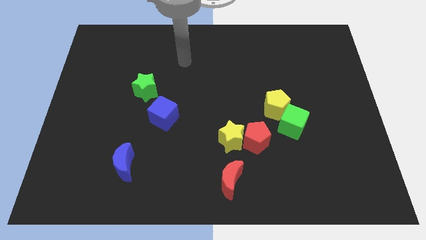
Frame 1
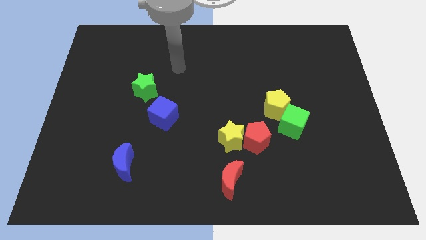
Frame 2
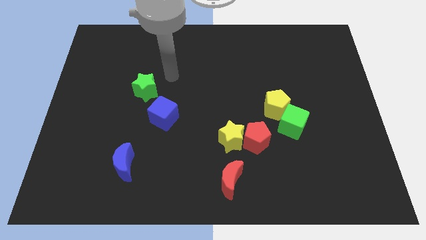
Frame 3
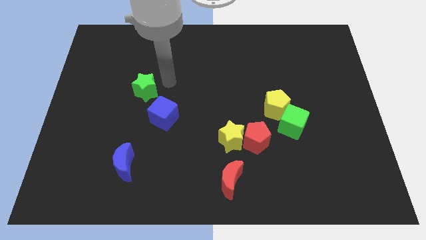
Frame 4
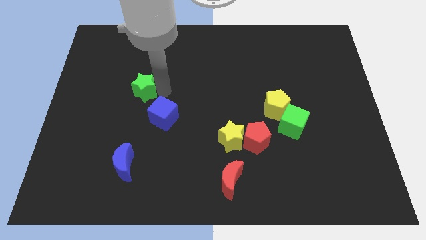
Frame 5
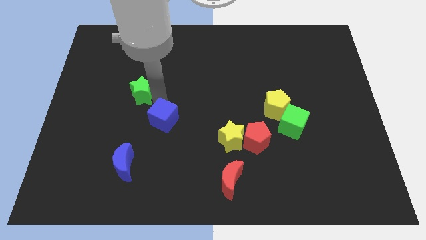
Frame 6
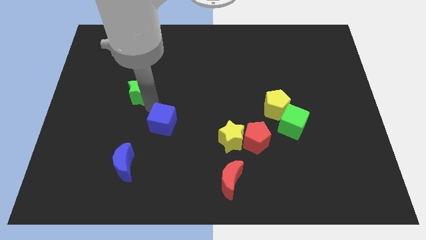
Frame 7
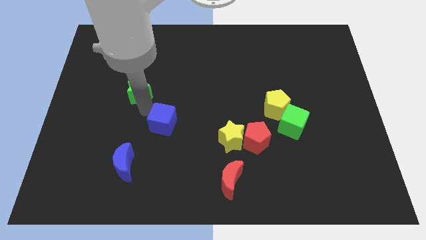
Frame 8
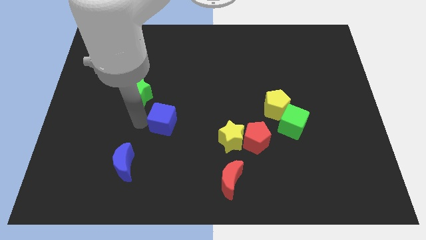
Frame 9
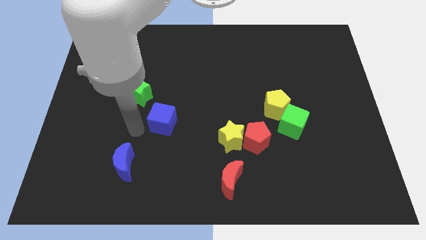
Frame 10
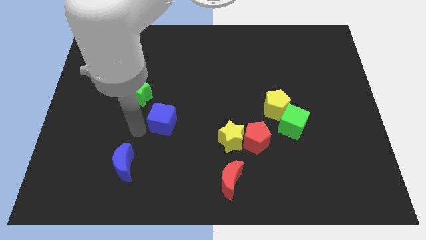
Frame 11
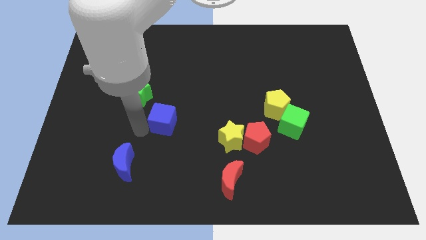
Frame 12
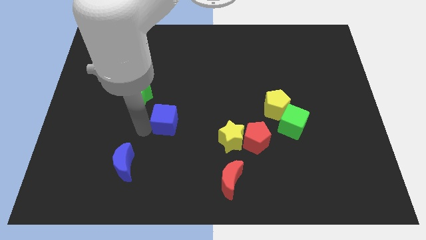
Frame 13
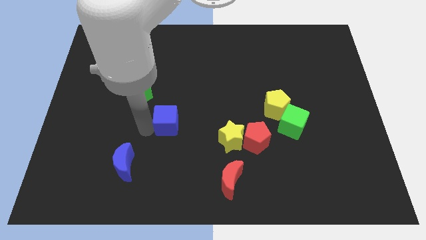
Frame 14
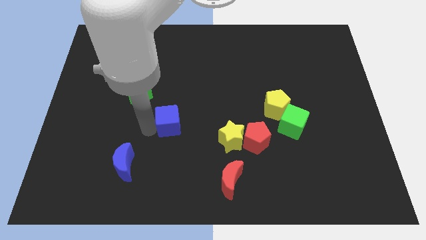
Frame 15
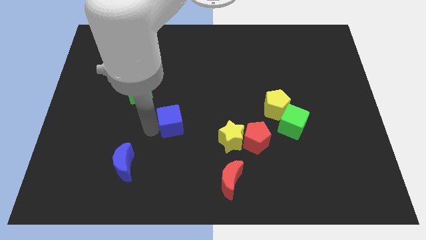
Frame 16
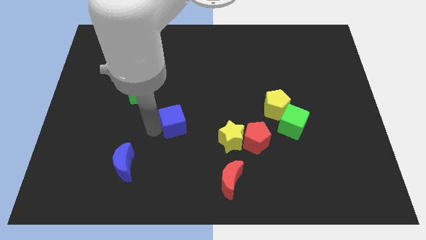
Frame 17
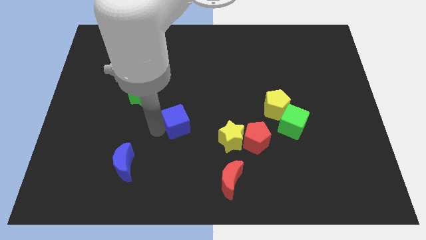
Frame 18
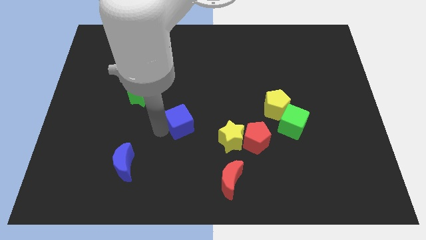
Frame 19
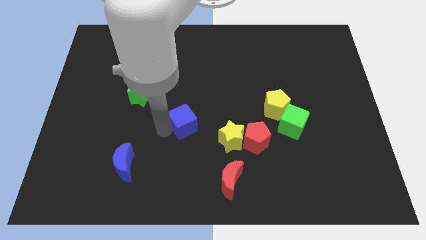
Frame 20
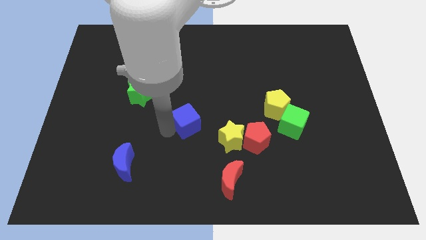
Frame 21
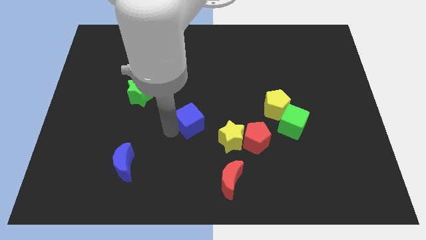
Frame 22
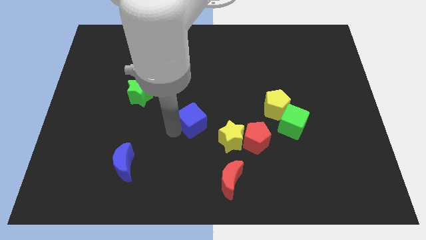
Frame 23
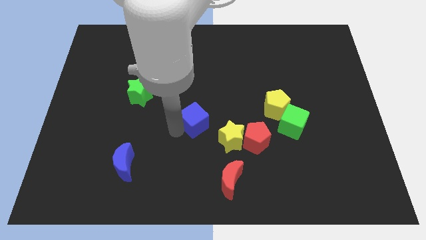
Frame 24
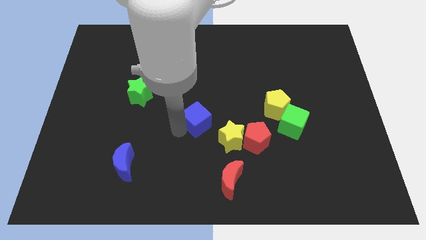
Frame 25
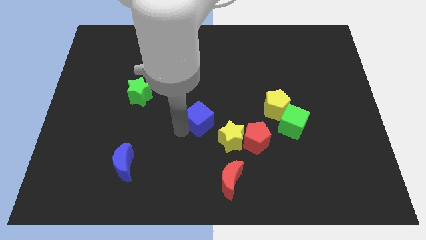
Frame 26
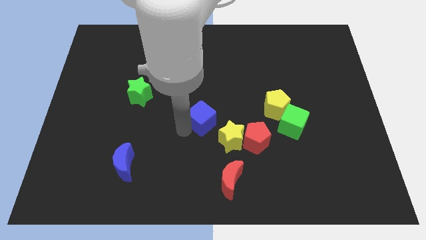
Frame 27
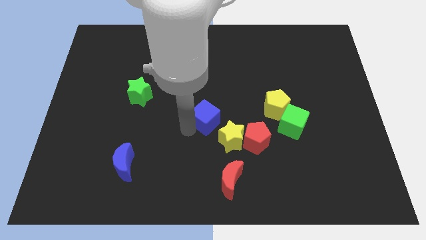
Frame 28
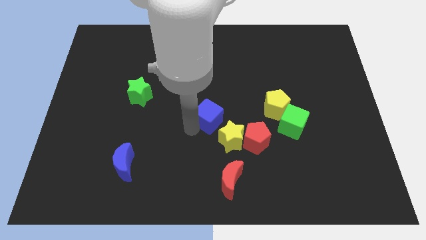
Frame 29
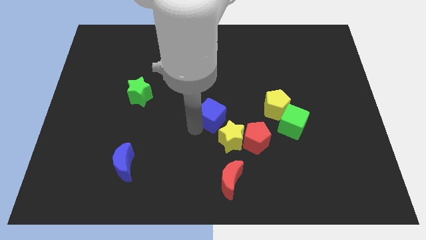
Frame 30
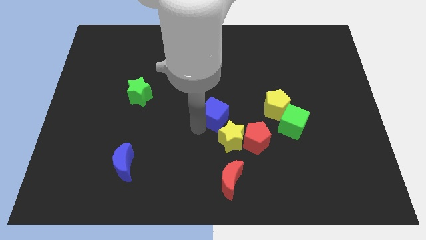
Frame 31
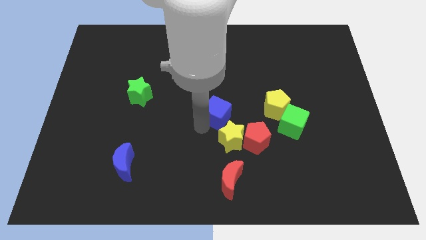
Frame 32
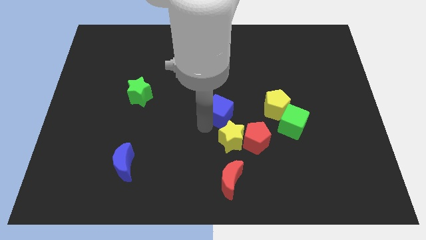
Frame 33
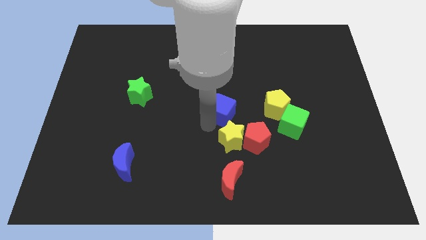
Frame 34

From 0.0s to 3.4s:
slightly slide the blue cube upwards and to the right diagonally

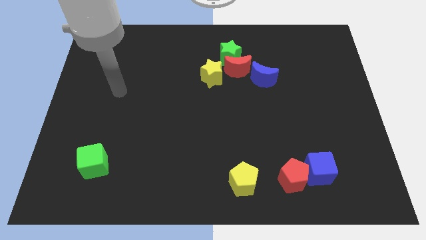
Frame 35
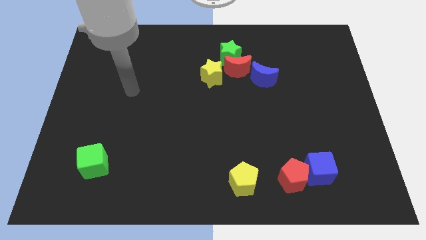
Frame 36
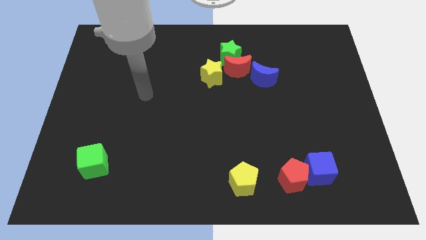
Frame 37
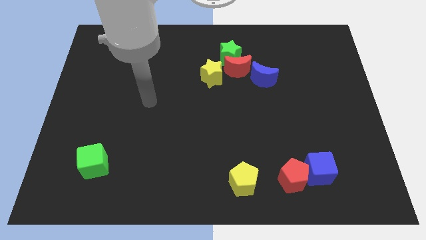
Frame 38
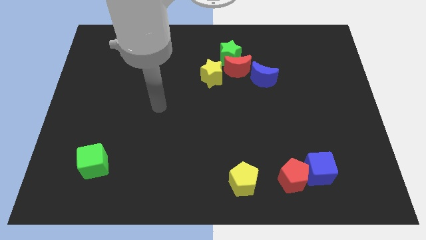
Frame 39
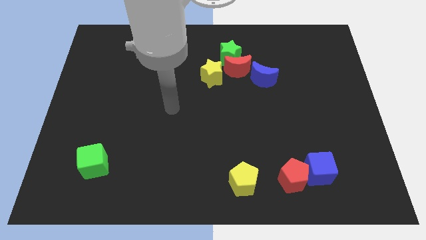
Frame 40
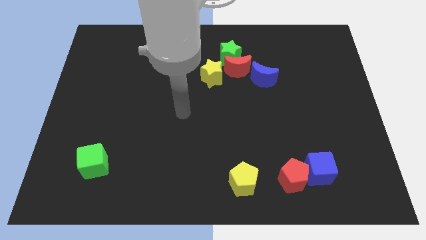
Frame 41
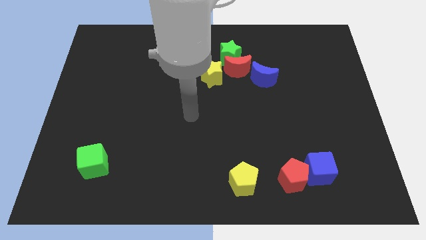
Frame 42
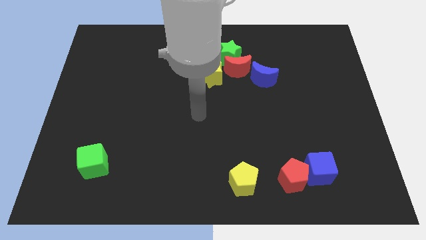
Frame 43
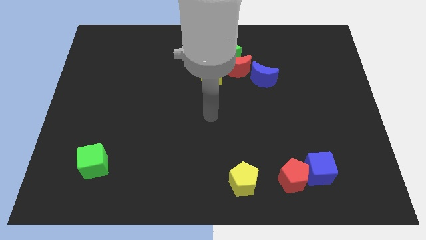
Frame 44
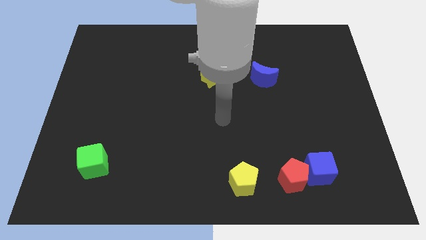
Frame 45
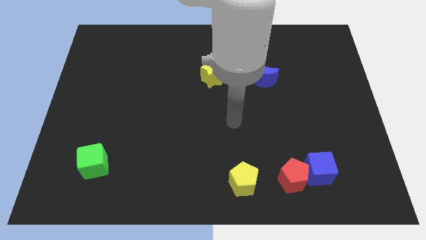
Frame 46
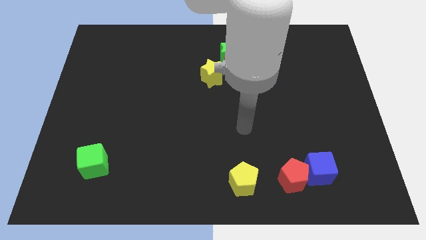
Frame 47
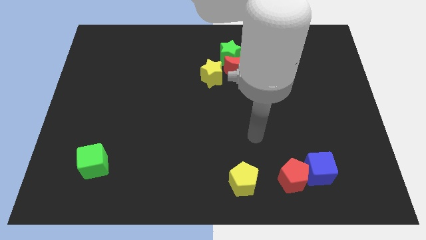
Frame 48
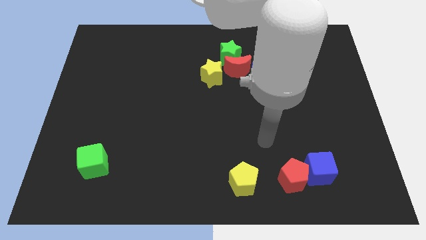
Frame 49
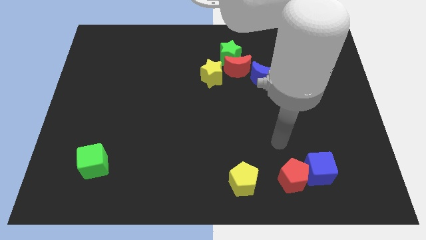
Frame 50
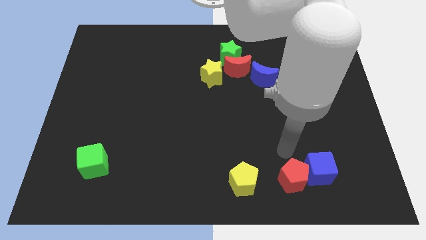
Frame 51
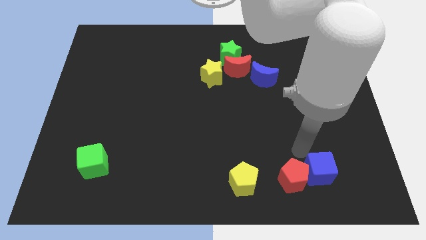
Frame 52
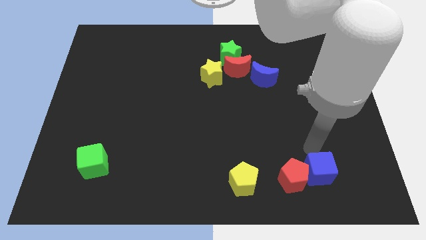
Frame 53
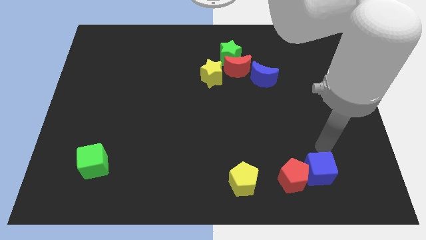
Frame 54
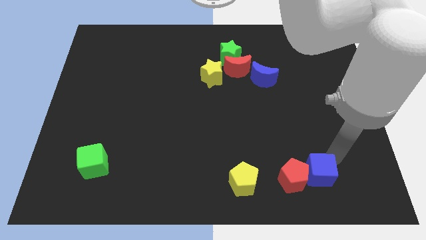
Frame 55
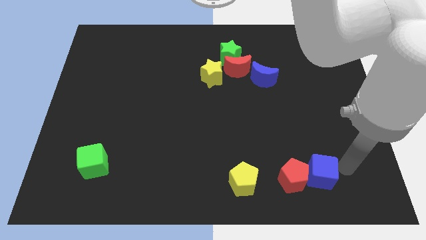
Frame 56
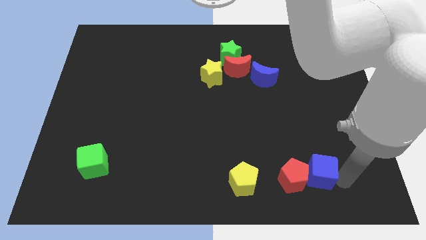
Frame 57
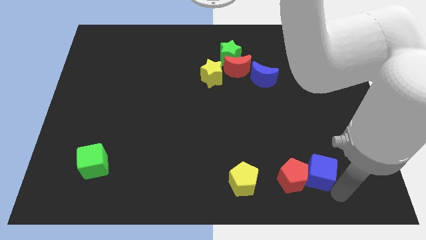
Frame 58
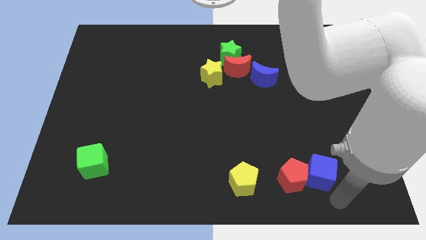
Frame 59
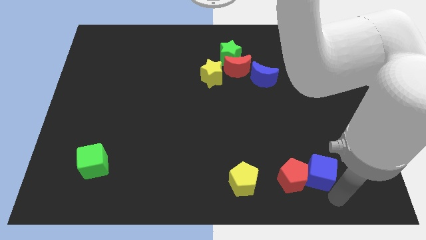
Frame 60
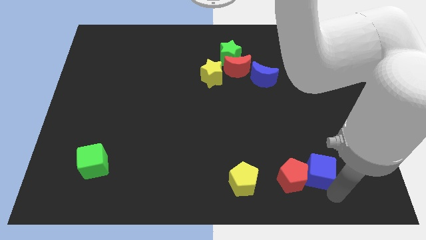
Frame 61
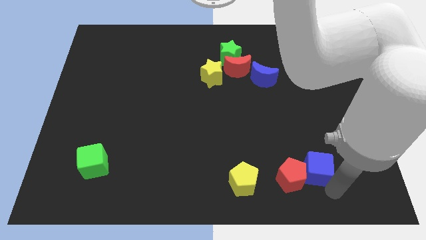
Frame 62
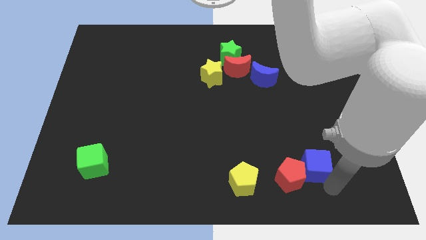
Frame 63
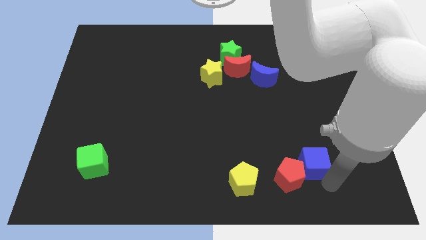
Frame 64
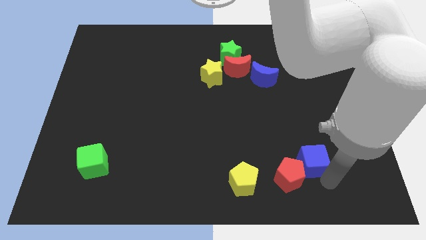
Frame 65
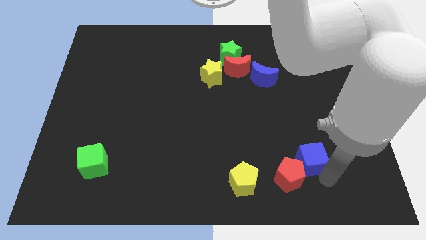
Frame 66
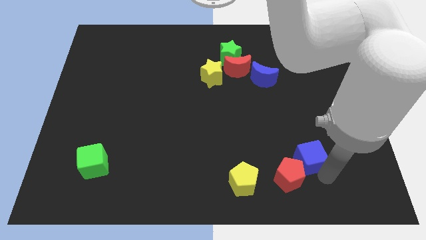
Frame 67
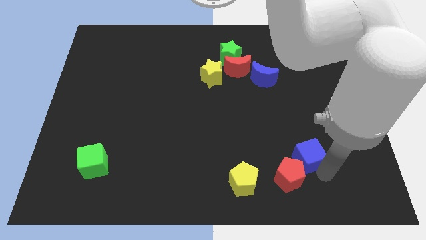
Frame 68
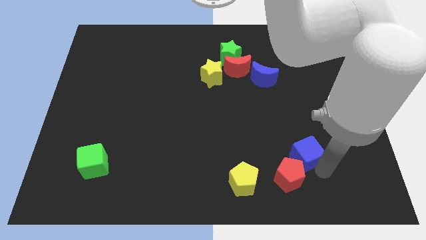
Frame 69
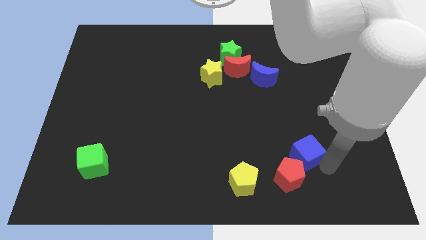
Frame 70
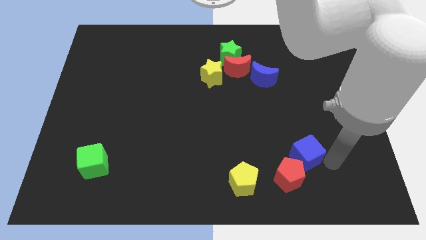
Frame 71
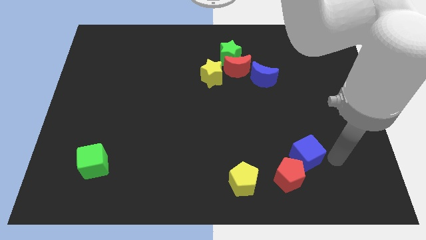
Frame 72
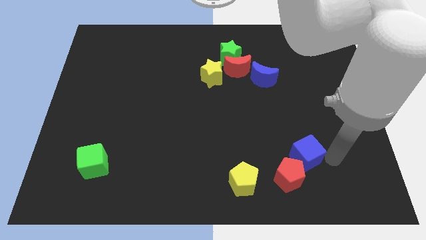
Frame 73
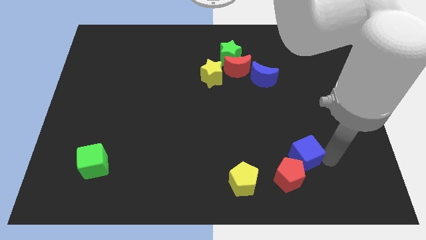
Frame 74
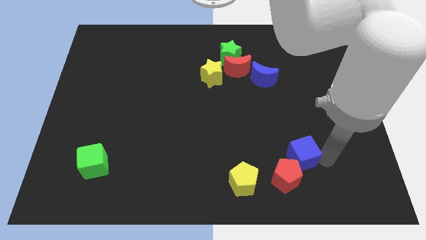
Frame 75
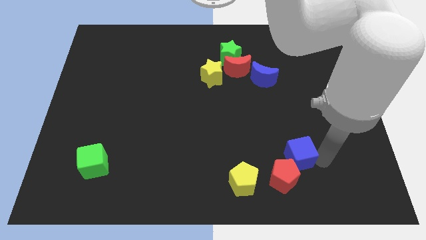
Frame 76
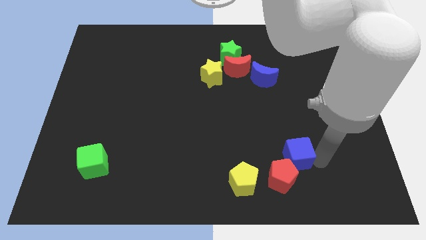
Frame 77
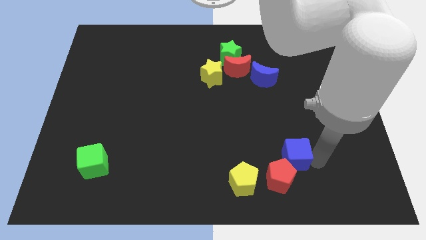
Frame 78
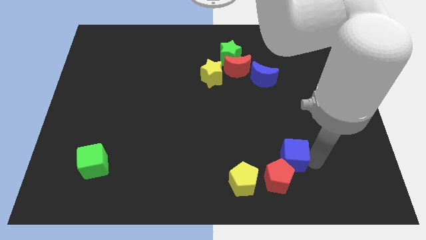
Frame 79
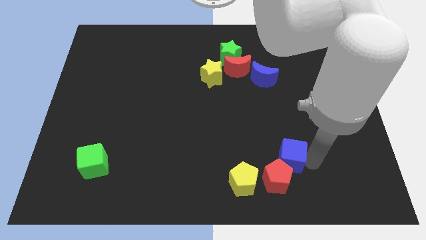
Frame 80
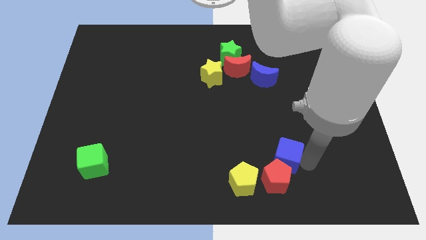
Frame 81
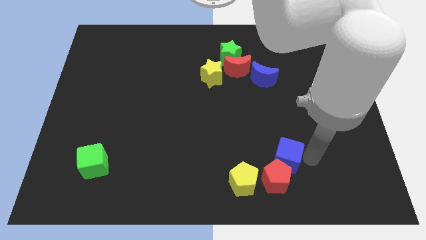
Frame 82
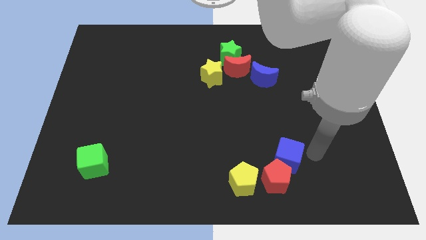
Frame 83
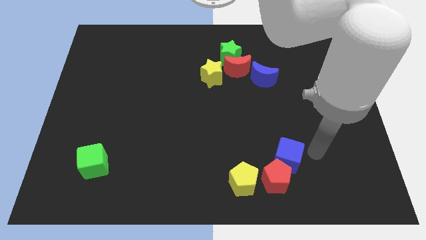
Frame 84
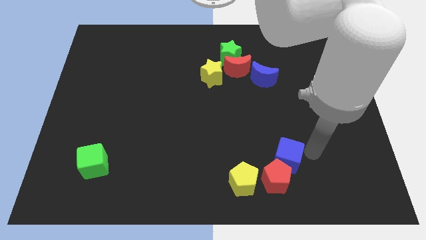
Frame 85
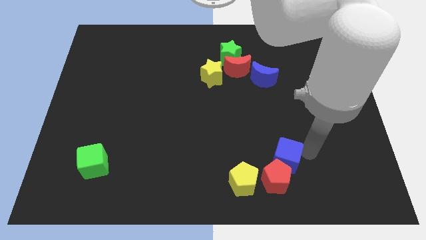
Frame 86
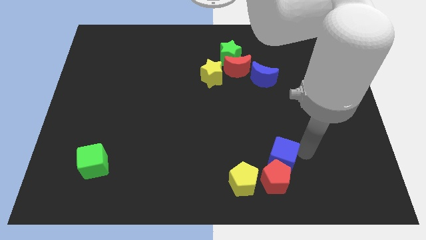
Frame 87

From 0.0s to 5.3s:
slightly slide the blue cube to the left
